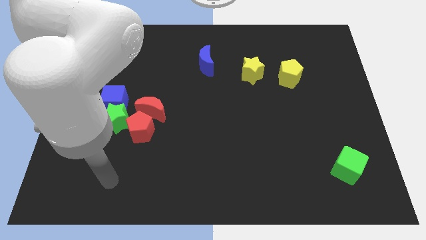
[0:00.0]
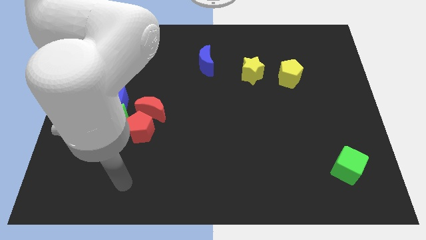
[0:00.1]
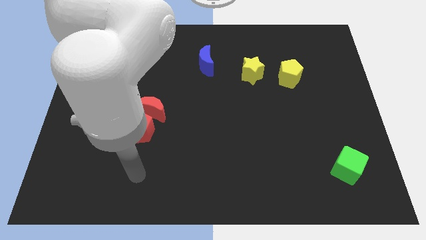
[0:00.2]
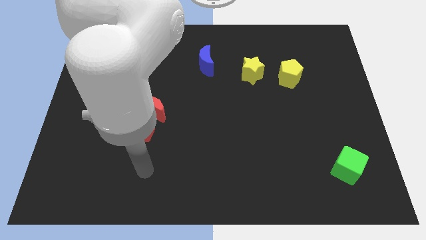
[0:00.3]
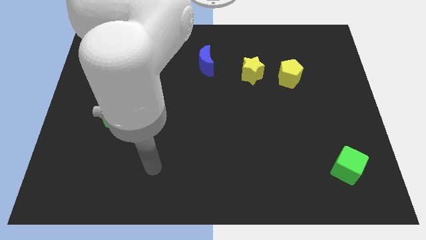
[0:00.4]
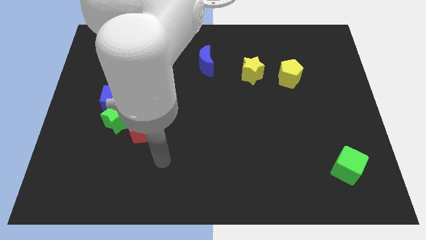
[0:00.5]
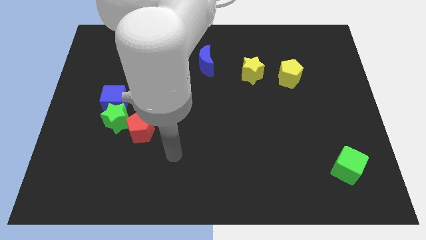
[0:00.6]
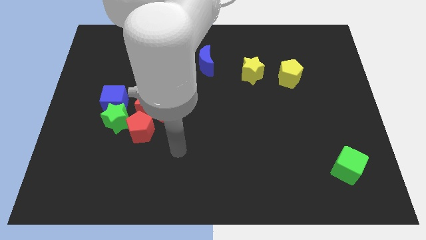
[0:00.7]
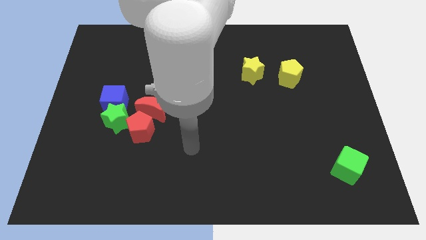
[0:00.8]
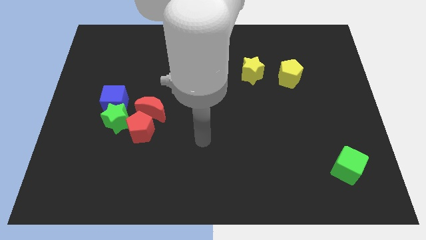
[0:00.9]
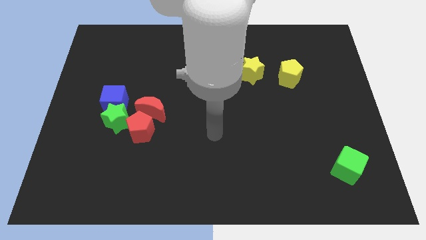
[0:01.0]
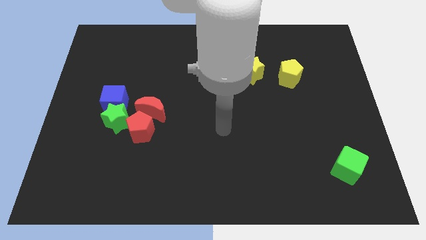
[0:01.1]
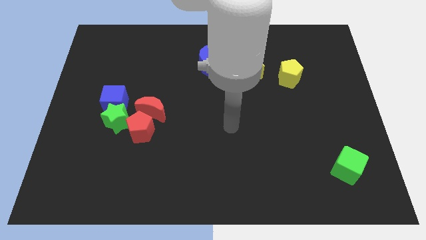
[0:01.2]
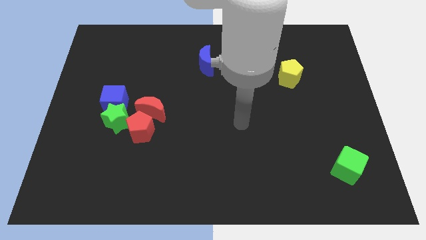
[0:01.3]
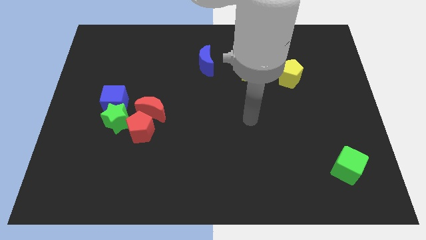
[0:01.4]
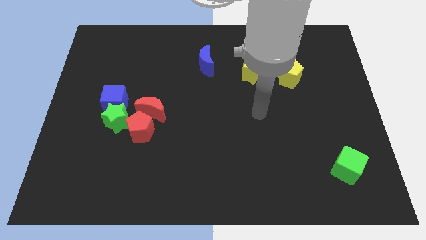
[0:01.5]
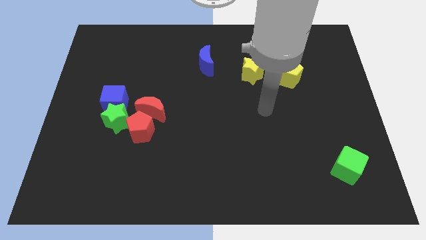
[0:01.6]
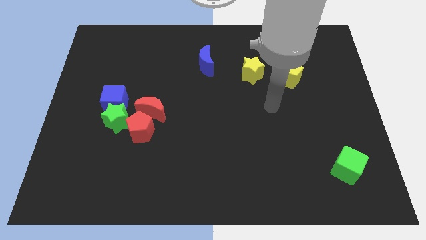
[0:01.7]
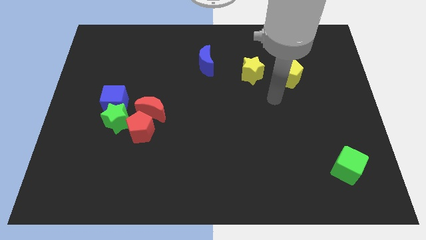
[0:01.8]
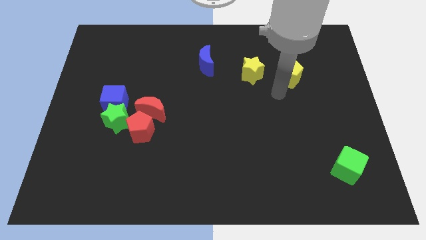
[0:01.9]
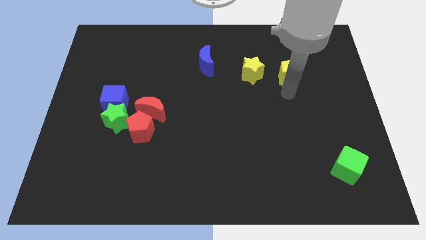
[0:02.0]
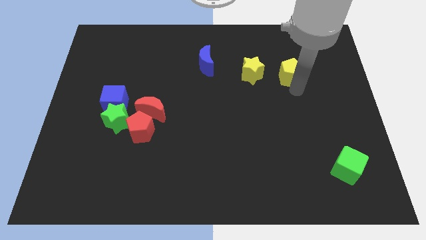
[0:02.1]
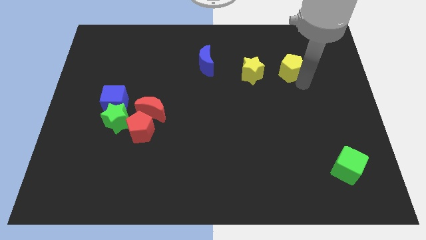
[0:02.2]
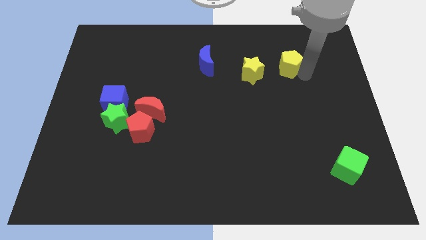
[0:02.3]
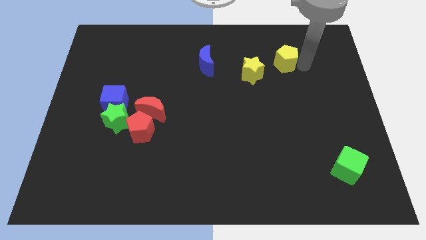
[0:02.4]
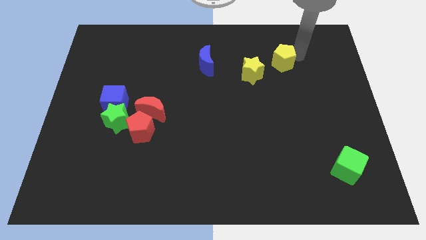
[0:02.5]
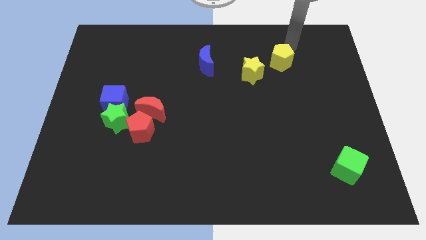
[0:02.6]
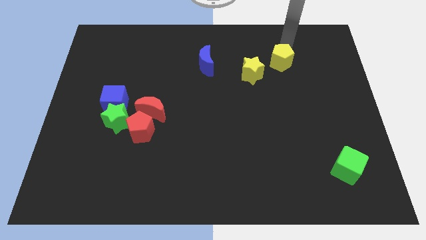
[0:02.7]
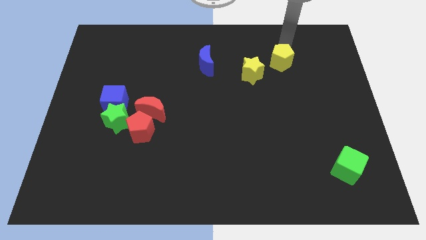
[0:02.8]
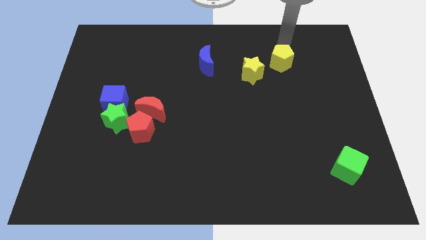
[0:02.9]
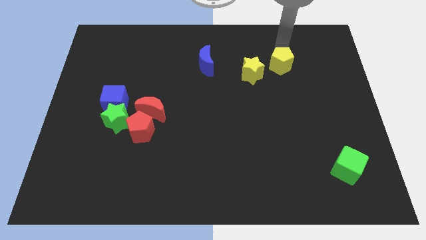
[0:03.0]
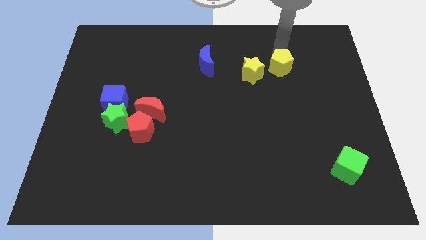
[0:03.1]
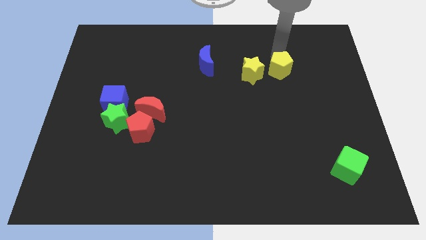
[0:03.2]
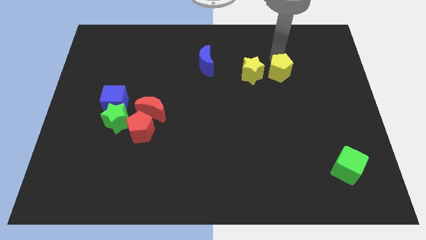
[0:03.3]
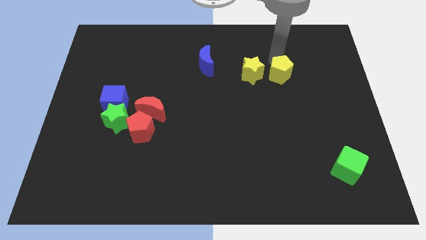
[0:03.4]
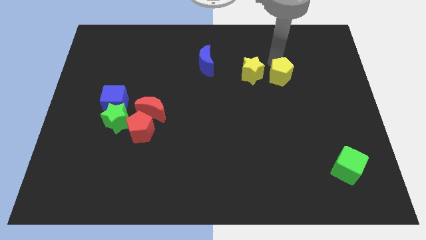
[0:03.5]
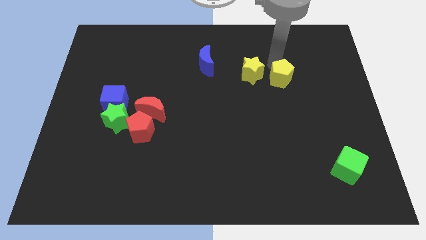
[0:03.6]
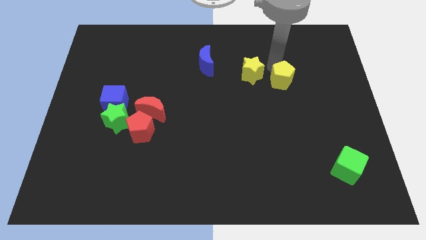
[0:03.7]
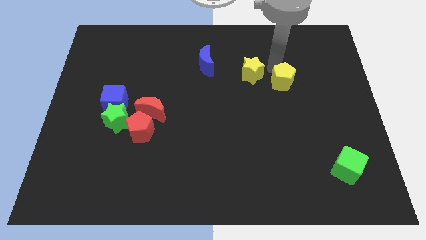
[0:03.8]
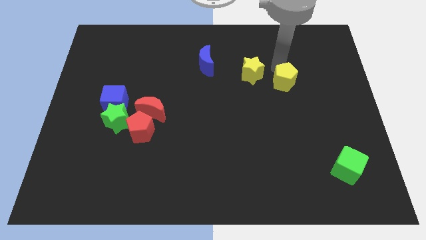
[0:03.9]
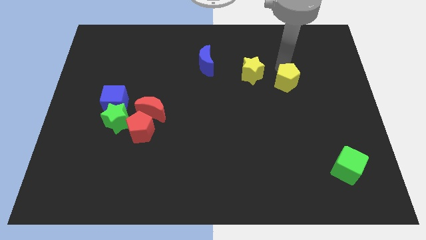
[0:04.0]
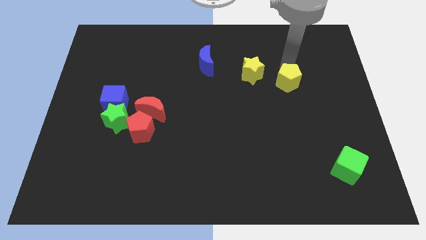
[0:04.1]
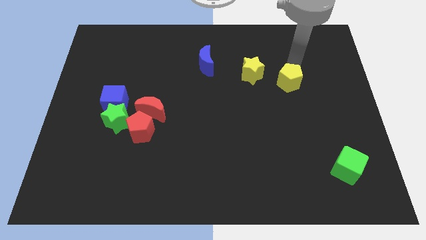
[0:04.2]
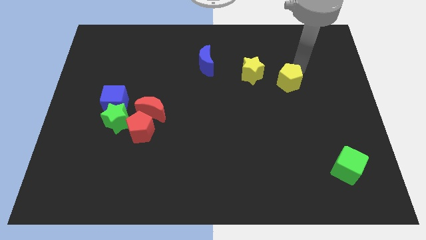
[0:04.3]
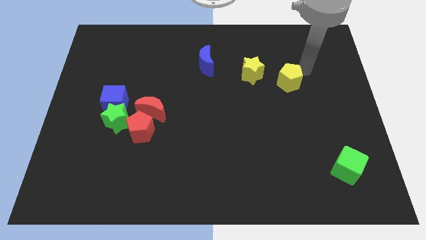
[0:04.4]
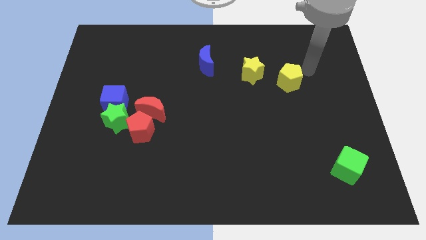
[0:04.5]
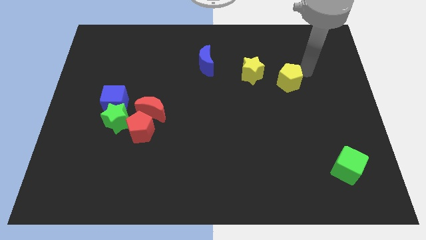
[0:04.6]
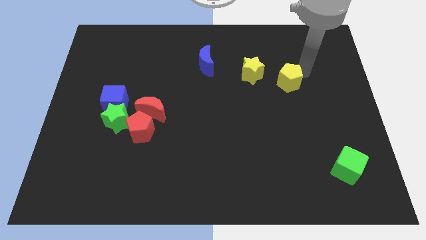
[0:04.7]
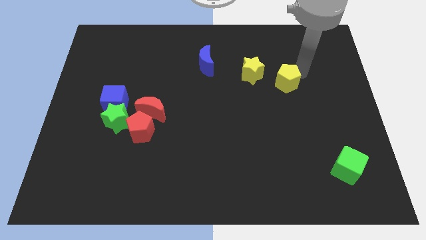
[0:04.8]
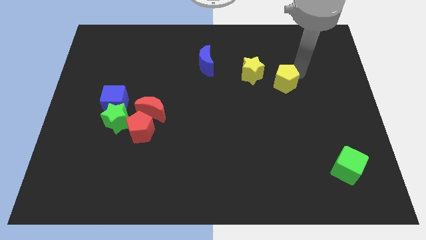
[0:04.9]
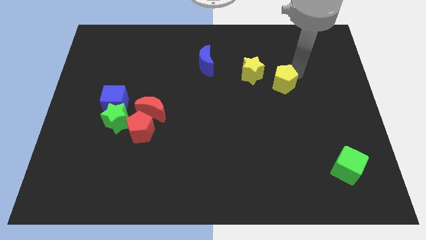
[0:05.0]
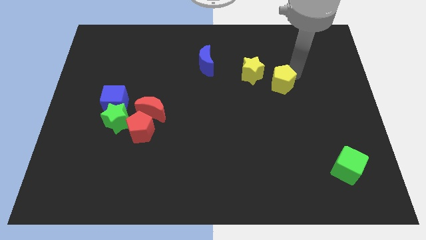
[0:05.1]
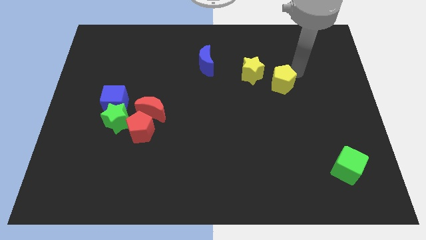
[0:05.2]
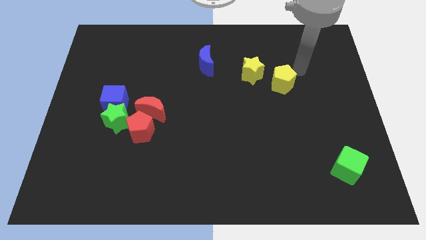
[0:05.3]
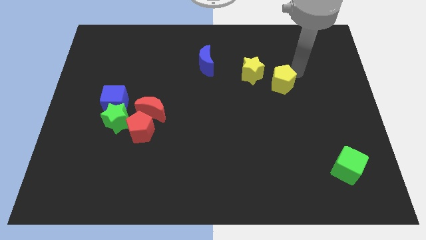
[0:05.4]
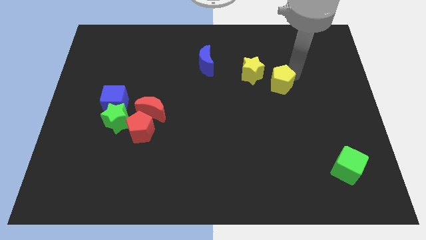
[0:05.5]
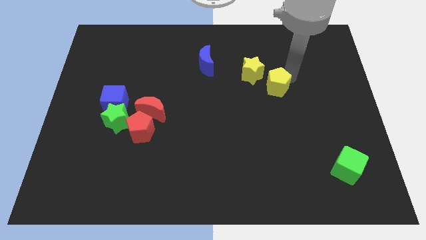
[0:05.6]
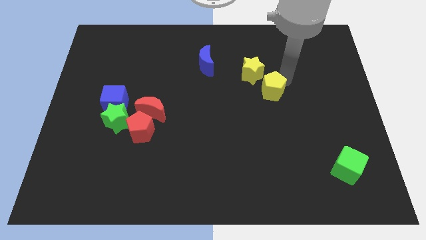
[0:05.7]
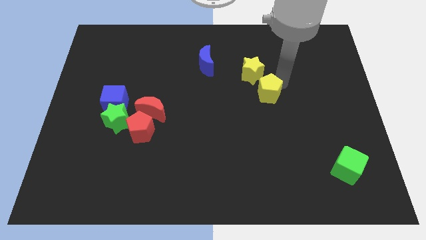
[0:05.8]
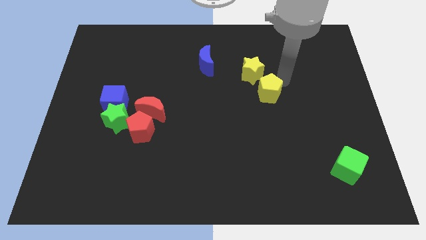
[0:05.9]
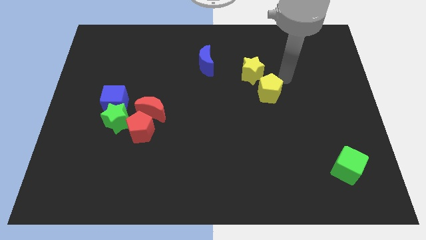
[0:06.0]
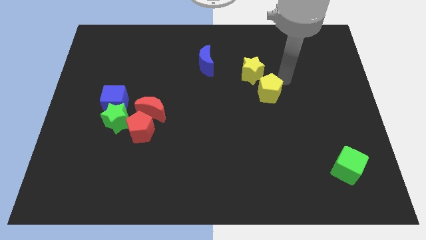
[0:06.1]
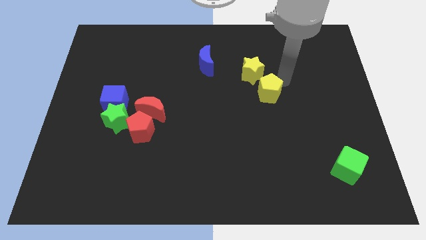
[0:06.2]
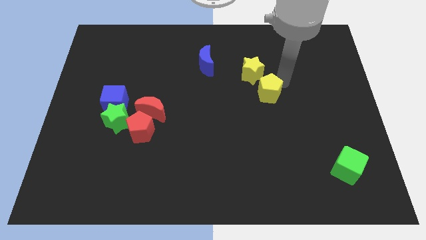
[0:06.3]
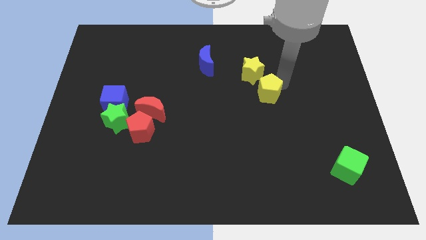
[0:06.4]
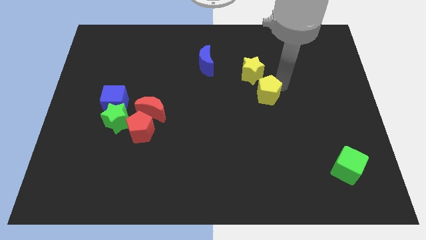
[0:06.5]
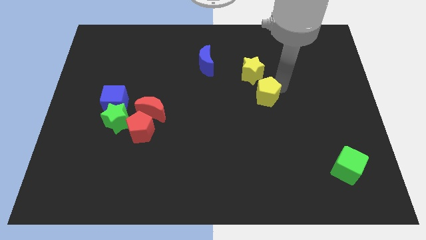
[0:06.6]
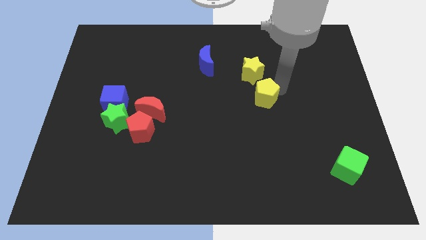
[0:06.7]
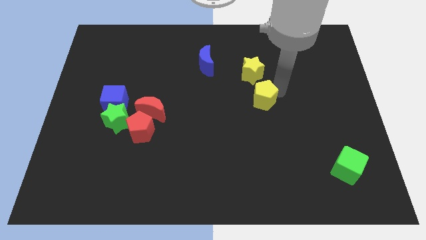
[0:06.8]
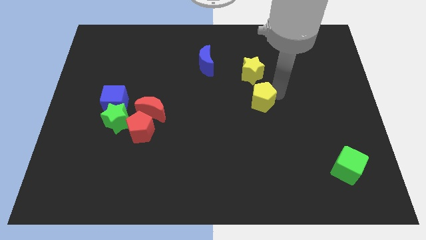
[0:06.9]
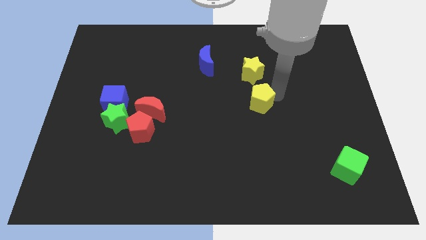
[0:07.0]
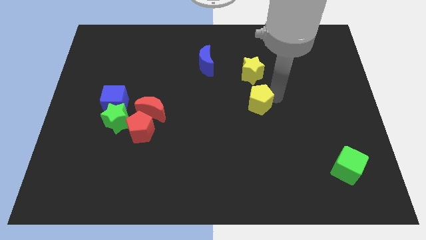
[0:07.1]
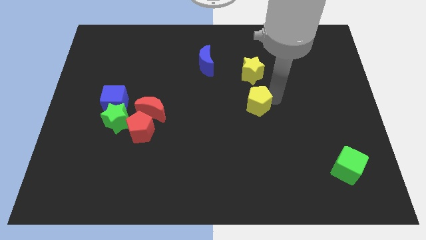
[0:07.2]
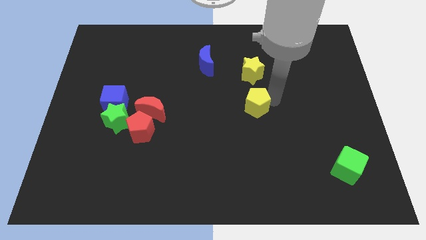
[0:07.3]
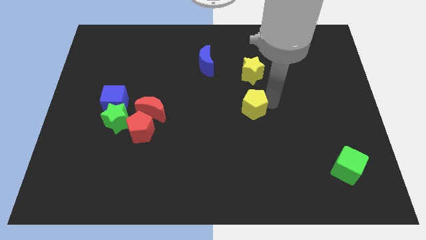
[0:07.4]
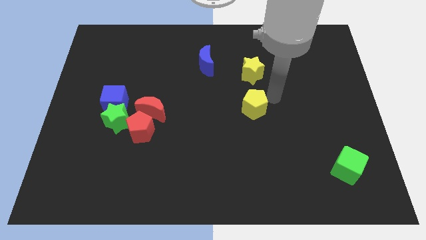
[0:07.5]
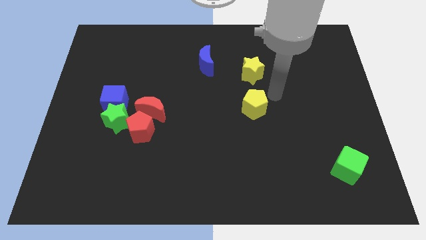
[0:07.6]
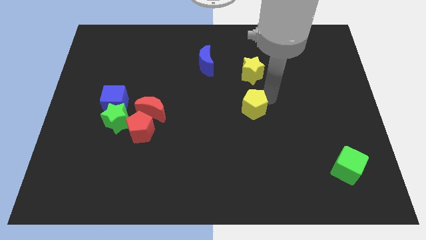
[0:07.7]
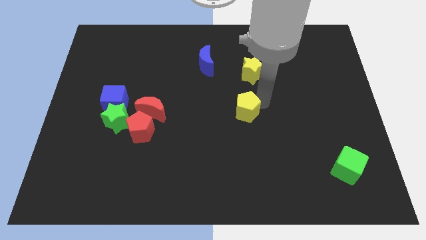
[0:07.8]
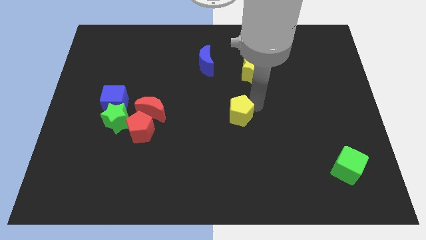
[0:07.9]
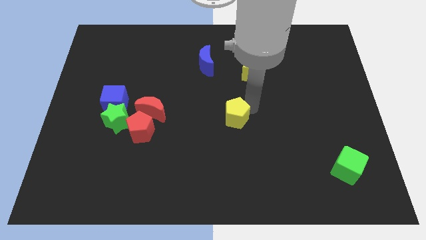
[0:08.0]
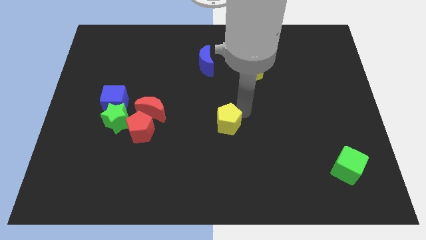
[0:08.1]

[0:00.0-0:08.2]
move the yellow pentagon downwards and to the left diagonally
